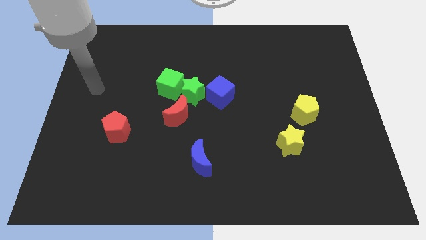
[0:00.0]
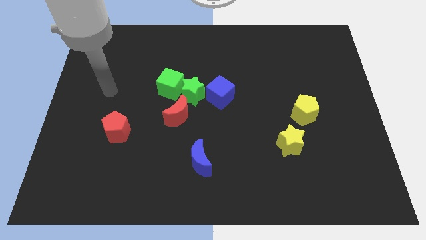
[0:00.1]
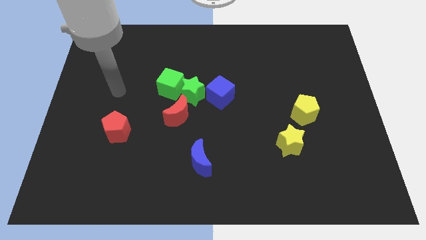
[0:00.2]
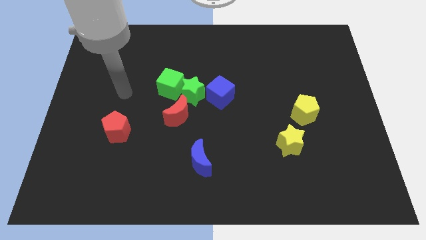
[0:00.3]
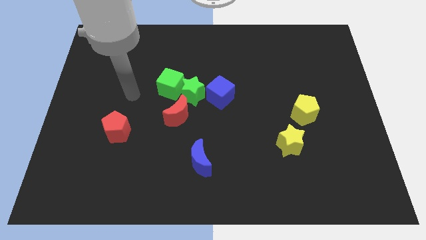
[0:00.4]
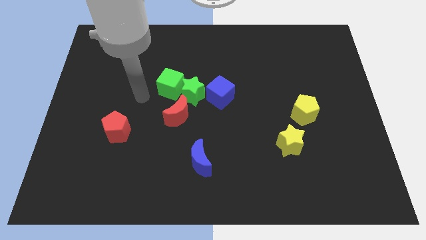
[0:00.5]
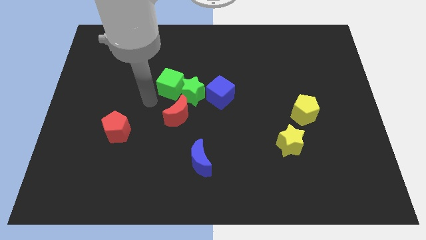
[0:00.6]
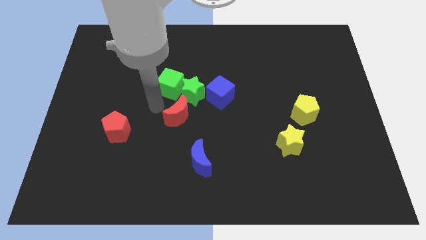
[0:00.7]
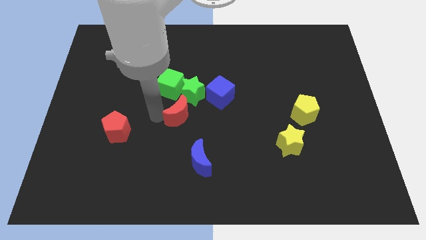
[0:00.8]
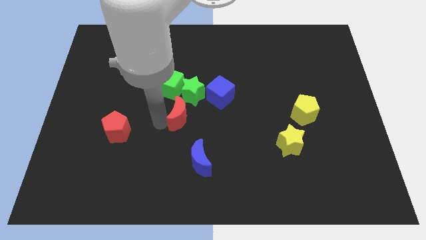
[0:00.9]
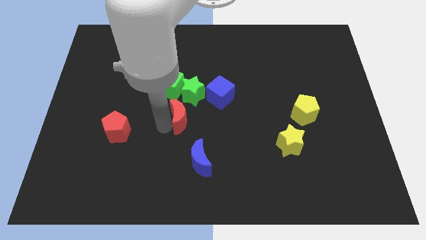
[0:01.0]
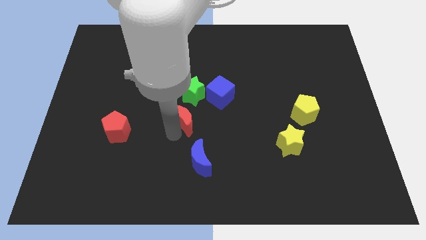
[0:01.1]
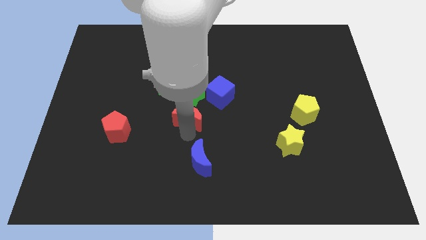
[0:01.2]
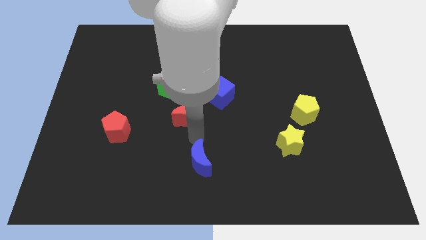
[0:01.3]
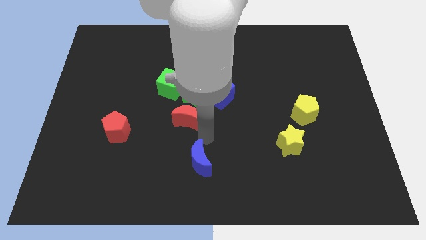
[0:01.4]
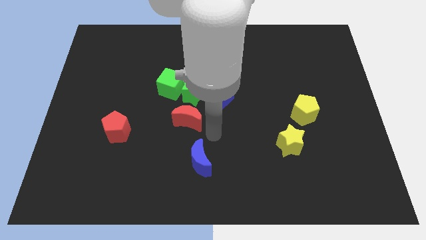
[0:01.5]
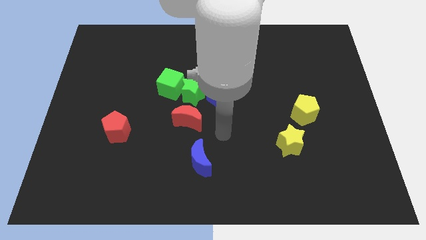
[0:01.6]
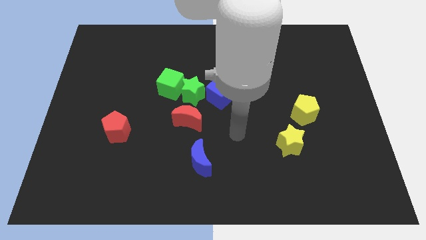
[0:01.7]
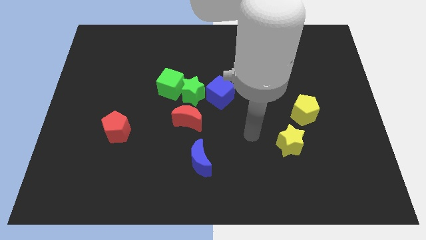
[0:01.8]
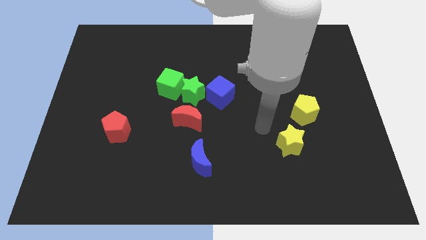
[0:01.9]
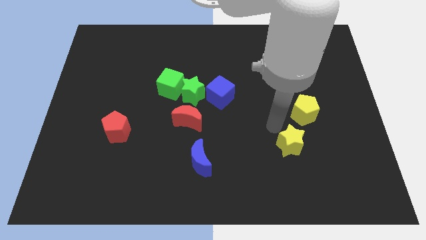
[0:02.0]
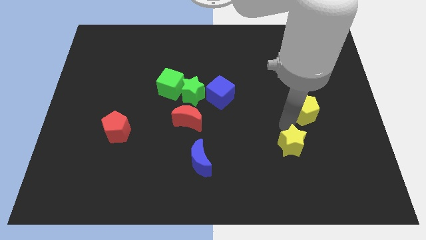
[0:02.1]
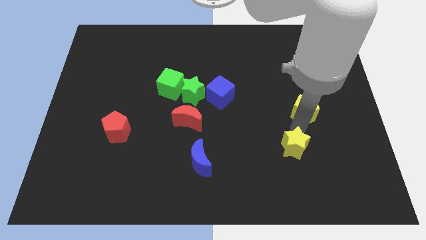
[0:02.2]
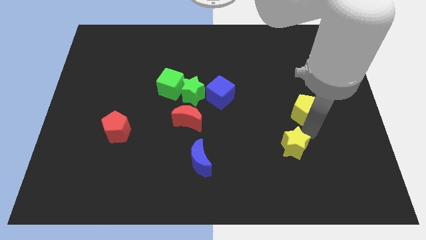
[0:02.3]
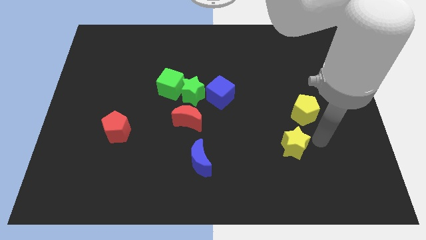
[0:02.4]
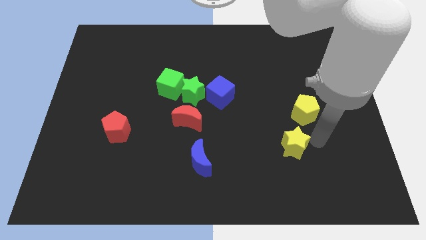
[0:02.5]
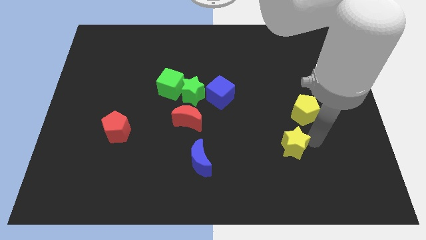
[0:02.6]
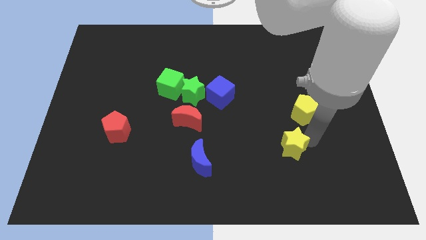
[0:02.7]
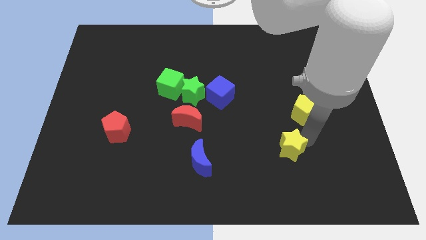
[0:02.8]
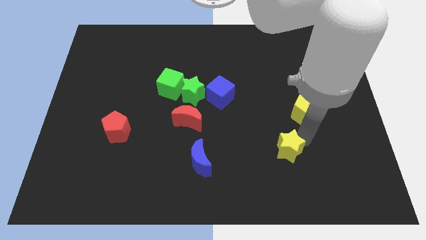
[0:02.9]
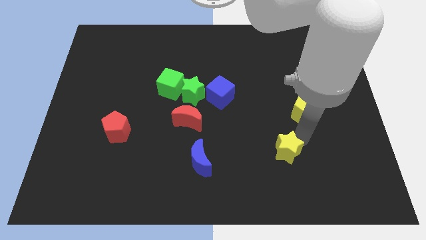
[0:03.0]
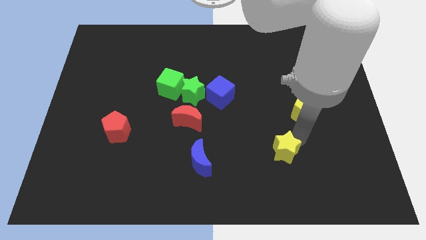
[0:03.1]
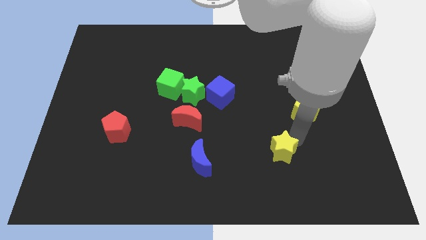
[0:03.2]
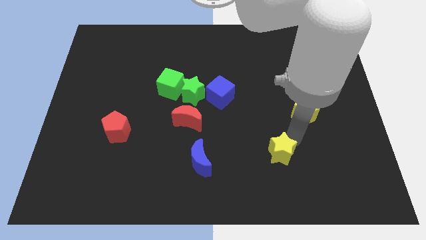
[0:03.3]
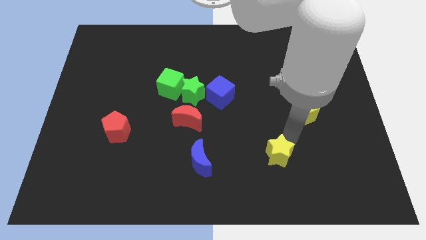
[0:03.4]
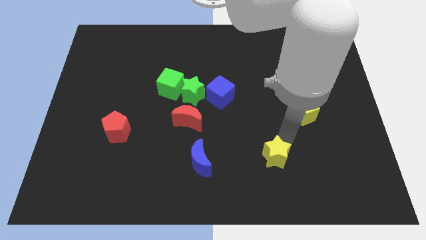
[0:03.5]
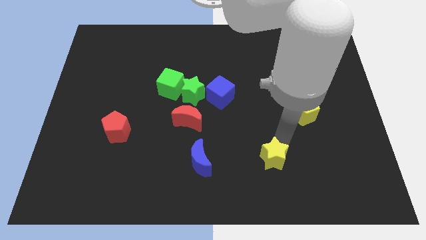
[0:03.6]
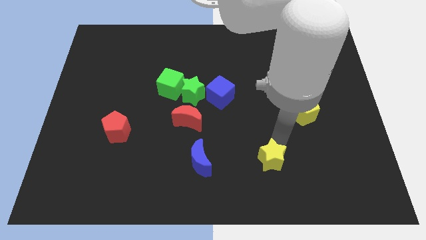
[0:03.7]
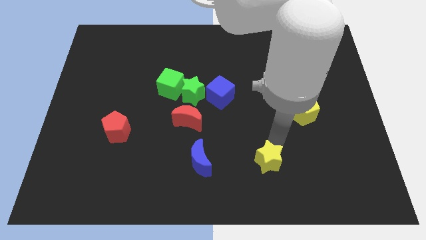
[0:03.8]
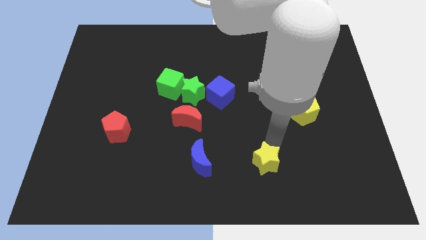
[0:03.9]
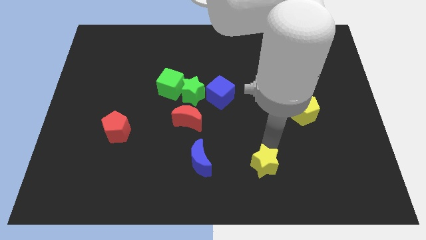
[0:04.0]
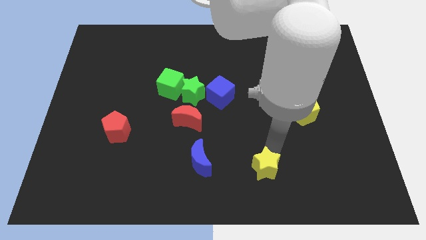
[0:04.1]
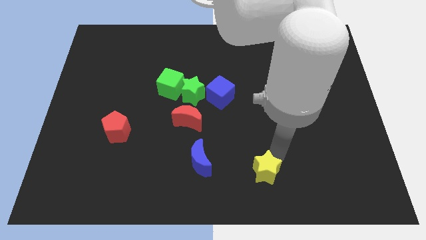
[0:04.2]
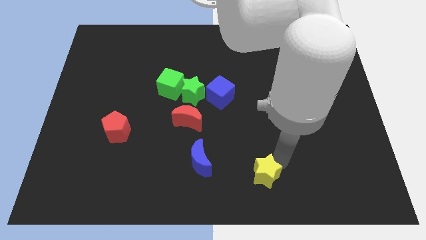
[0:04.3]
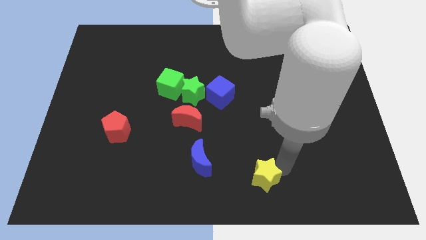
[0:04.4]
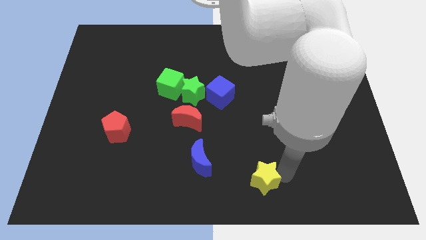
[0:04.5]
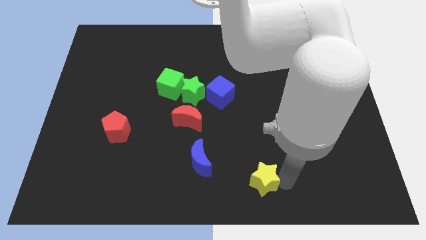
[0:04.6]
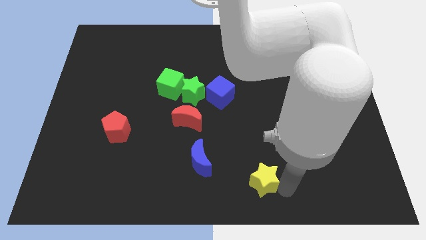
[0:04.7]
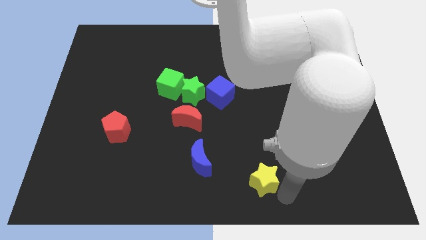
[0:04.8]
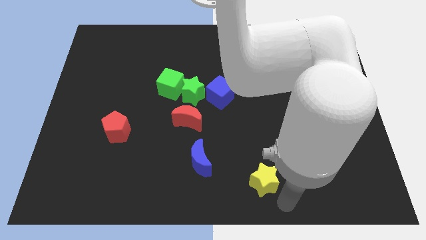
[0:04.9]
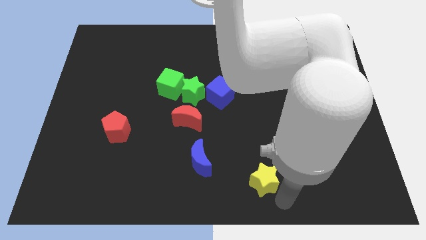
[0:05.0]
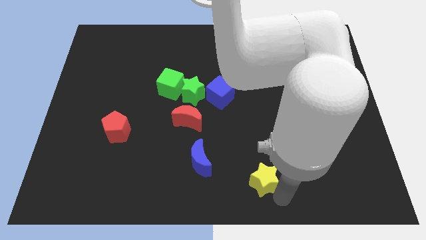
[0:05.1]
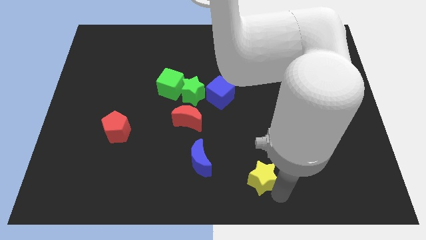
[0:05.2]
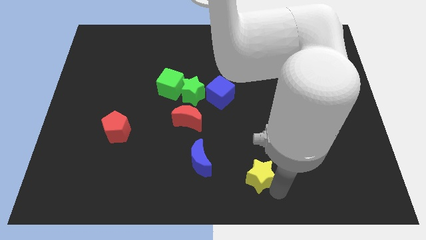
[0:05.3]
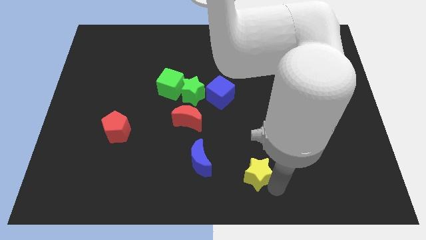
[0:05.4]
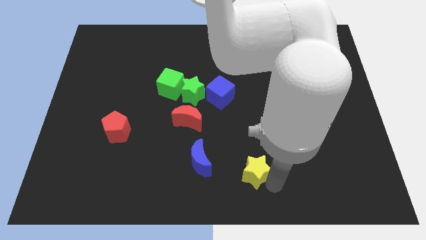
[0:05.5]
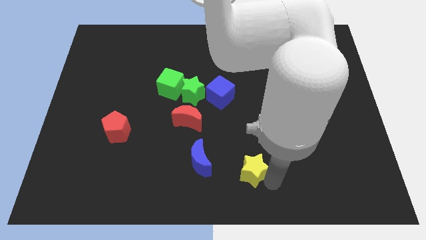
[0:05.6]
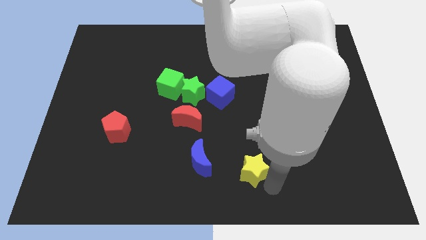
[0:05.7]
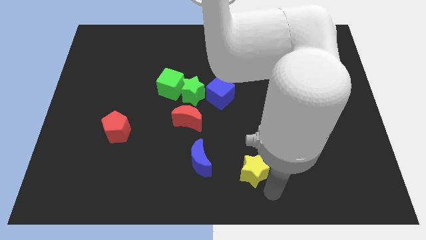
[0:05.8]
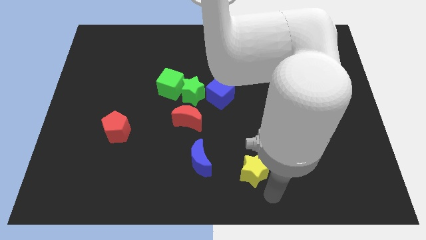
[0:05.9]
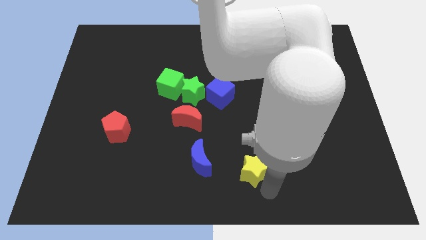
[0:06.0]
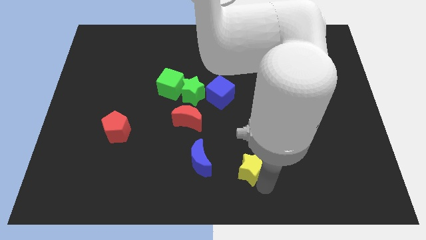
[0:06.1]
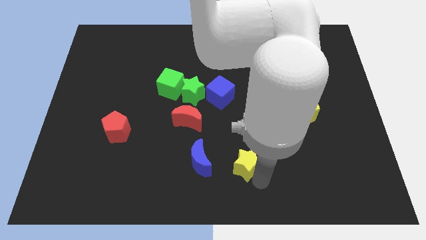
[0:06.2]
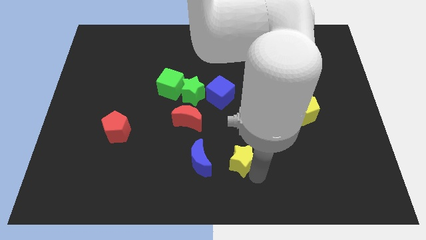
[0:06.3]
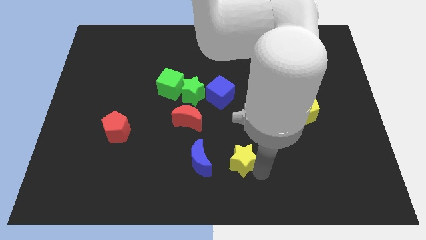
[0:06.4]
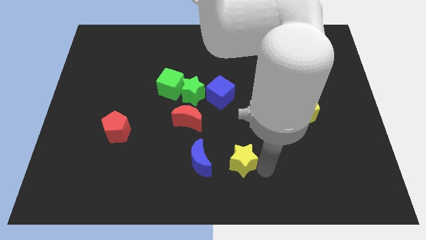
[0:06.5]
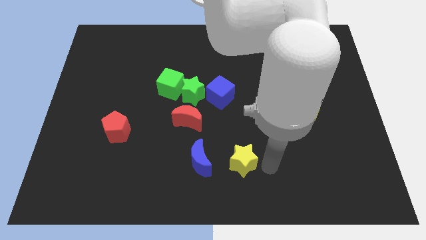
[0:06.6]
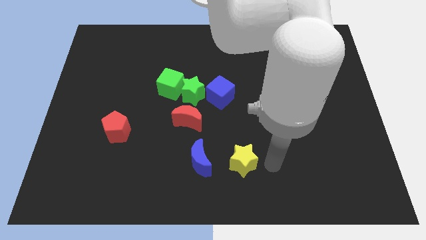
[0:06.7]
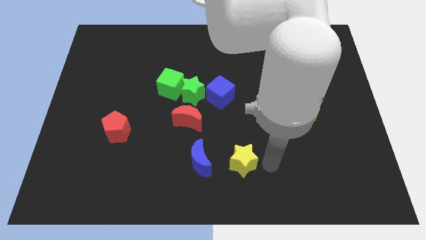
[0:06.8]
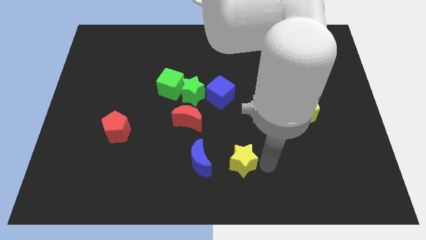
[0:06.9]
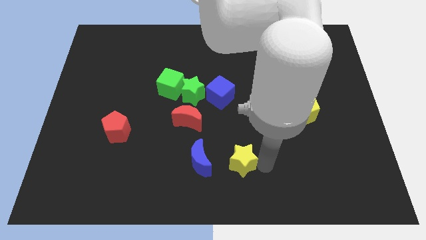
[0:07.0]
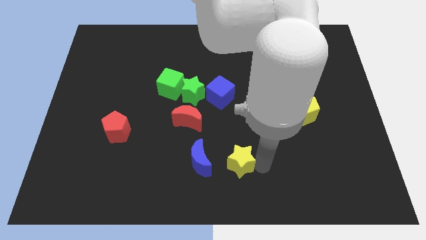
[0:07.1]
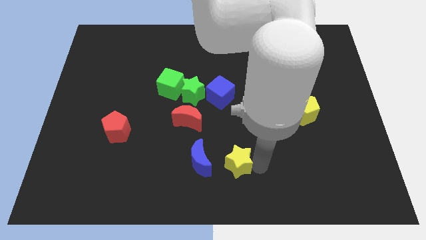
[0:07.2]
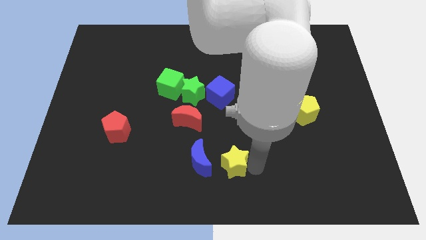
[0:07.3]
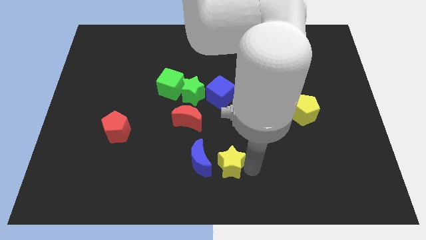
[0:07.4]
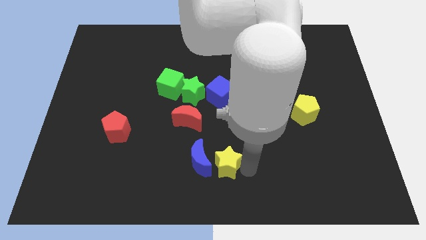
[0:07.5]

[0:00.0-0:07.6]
move the yellow star next to the blue moon

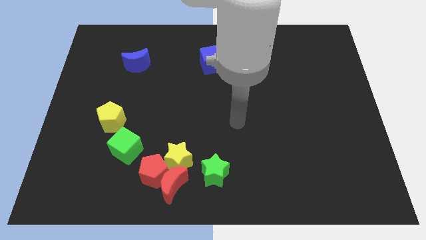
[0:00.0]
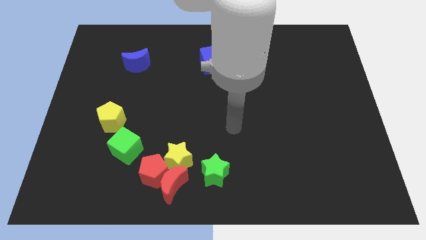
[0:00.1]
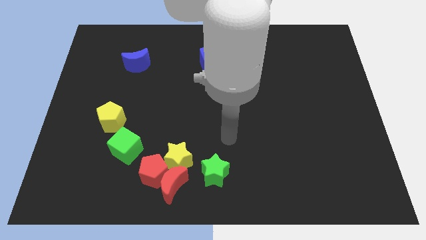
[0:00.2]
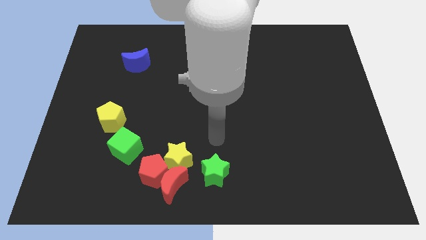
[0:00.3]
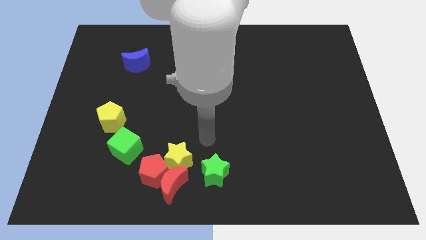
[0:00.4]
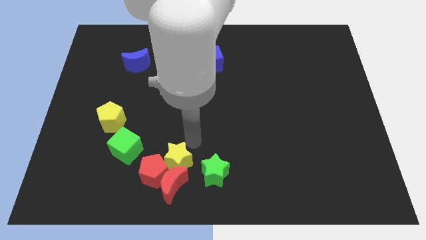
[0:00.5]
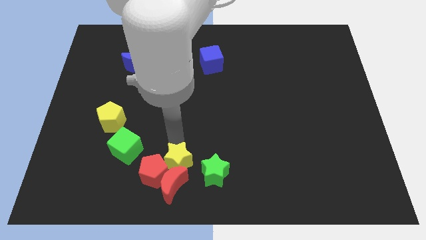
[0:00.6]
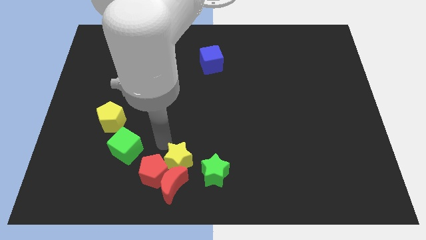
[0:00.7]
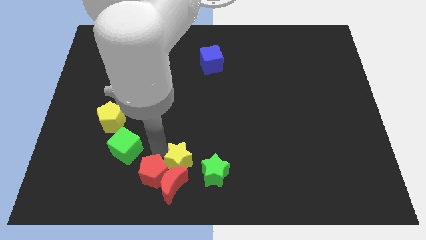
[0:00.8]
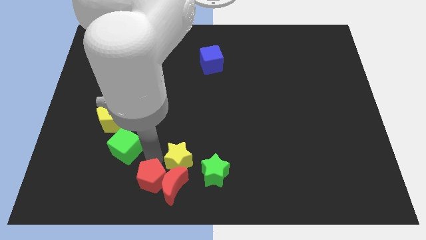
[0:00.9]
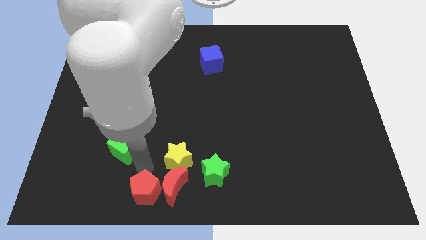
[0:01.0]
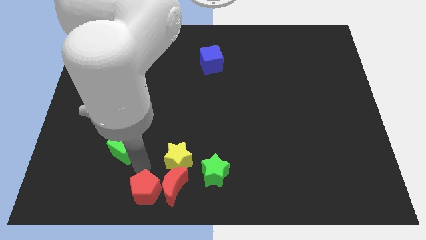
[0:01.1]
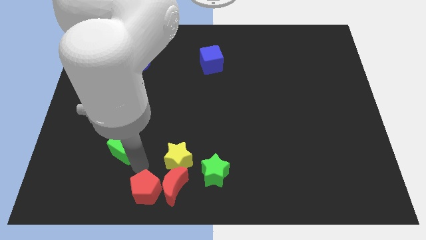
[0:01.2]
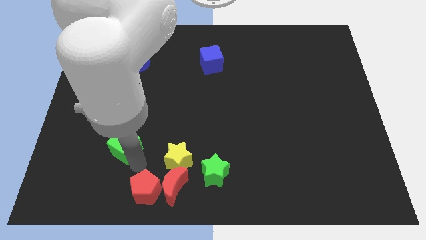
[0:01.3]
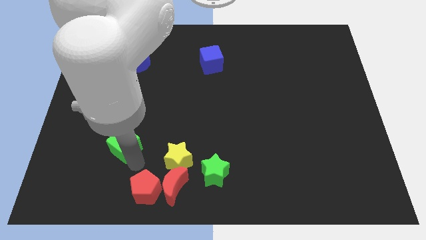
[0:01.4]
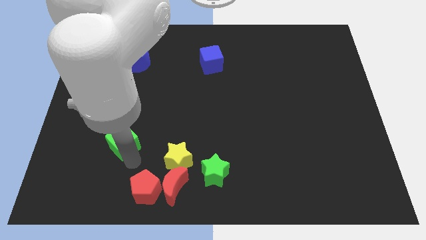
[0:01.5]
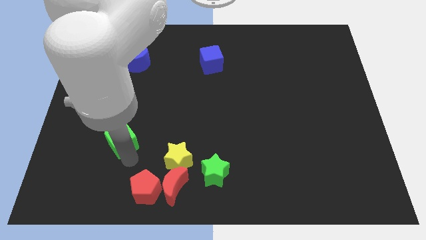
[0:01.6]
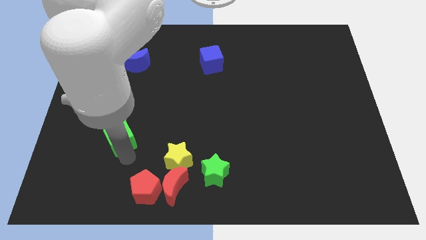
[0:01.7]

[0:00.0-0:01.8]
move the green cube towards the yellow pentagon
